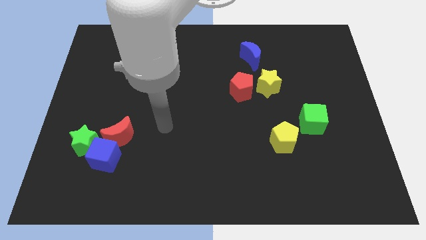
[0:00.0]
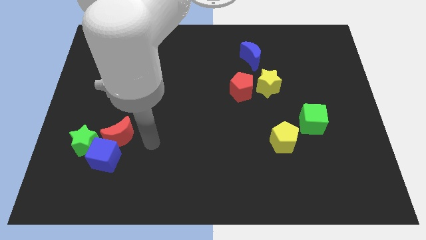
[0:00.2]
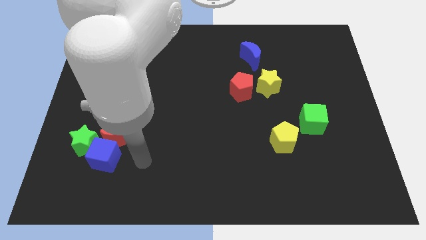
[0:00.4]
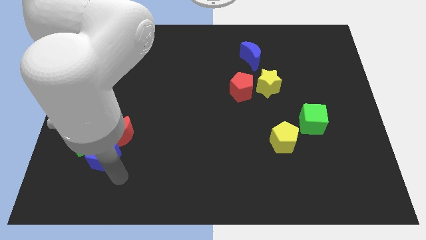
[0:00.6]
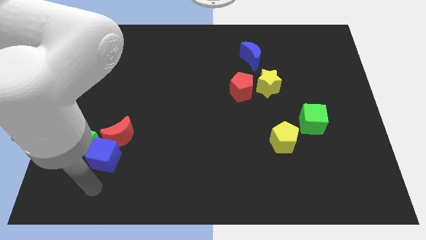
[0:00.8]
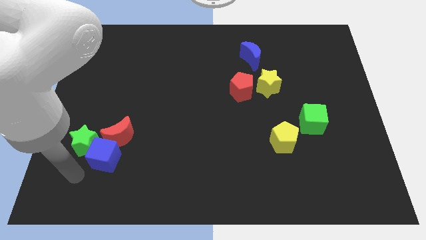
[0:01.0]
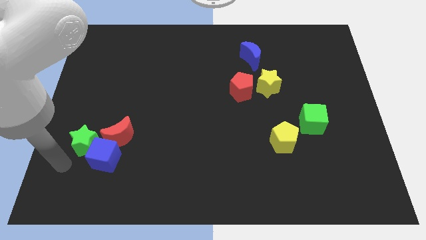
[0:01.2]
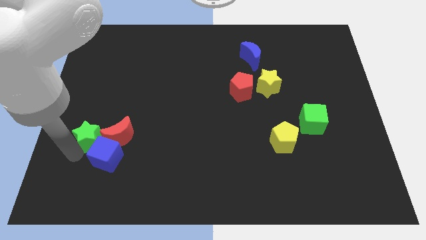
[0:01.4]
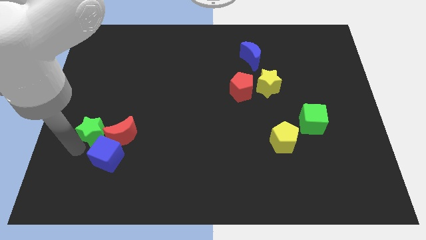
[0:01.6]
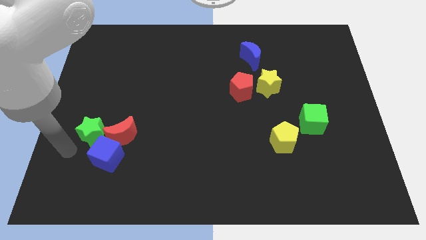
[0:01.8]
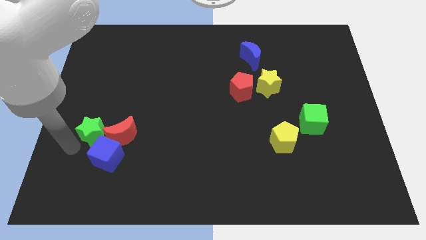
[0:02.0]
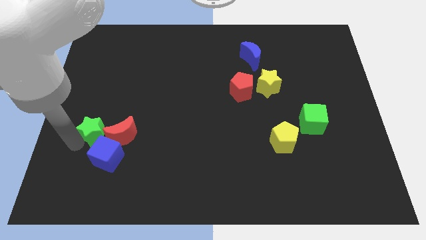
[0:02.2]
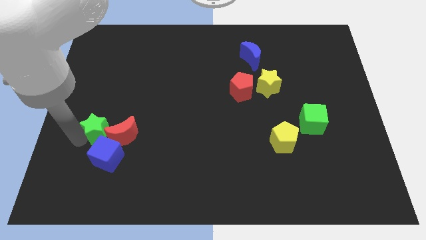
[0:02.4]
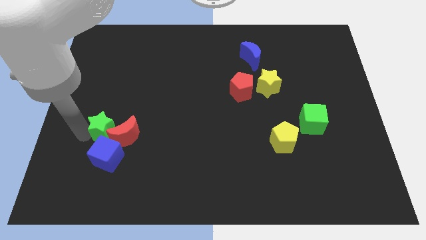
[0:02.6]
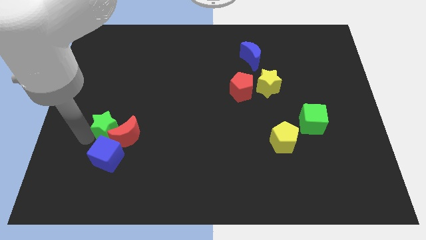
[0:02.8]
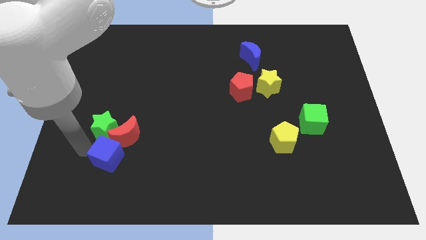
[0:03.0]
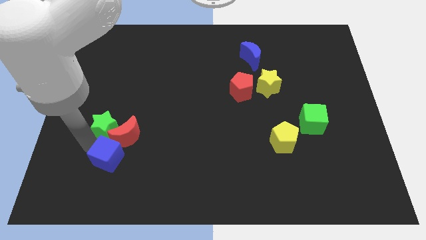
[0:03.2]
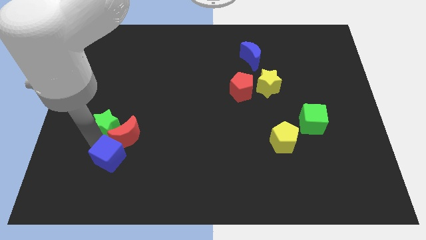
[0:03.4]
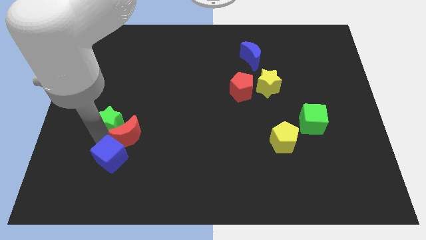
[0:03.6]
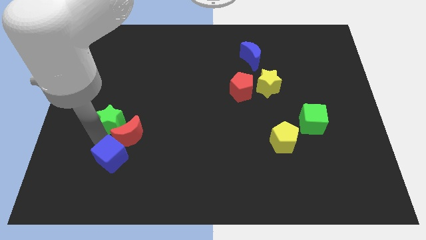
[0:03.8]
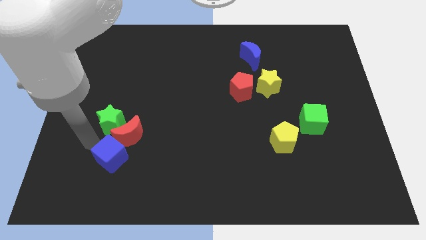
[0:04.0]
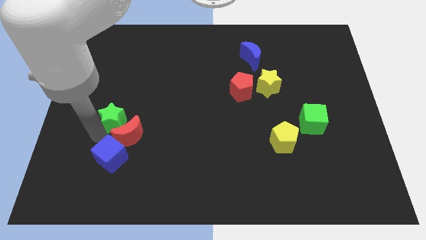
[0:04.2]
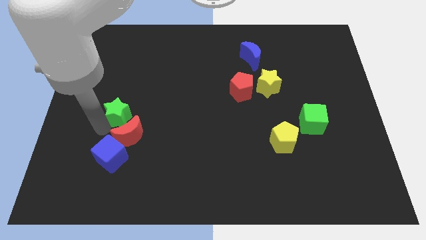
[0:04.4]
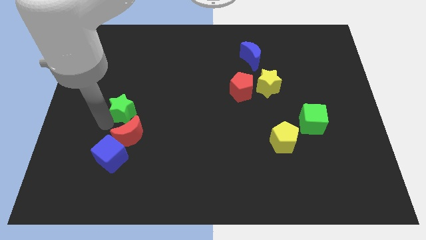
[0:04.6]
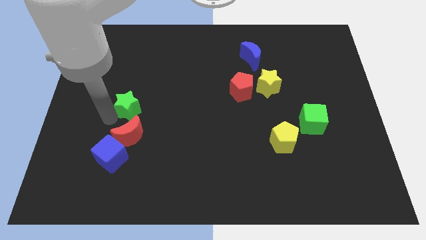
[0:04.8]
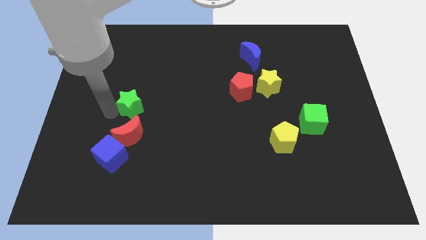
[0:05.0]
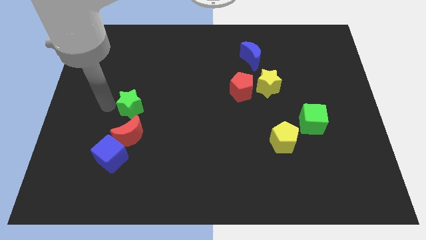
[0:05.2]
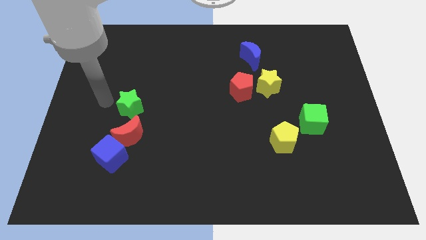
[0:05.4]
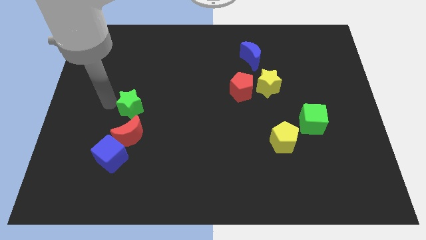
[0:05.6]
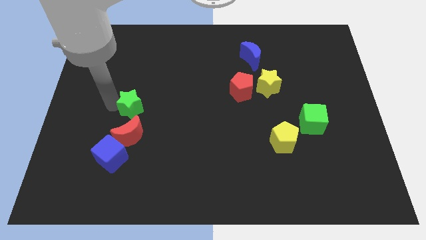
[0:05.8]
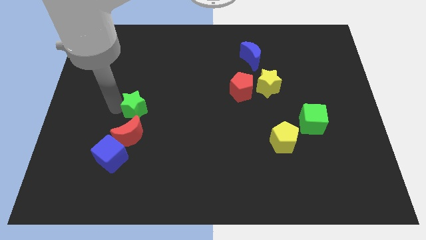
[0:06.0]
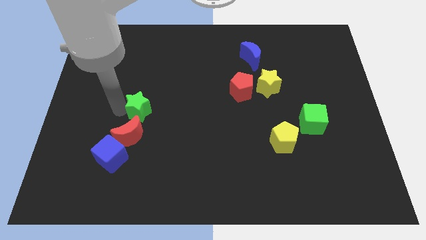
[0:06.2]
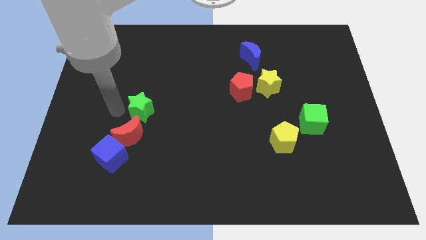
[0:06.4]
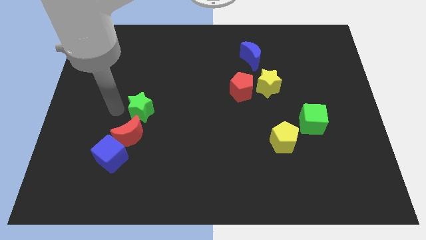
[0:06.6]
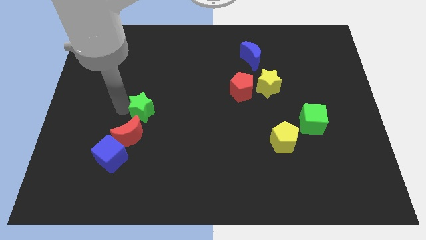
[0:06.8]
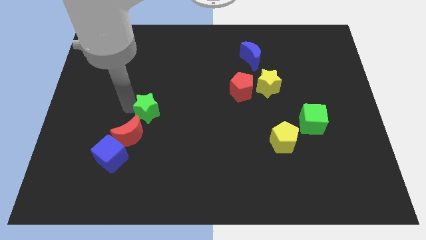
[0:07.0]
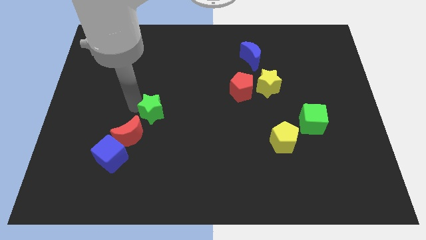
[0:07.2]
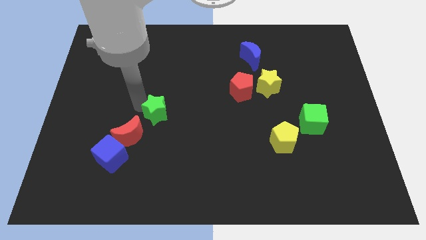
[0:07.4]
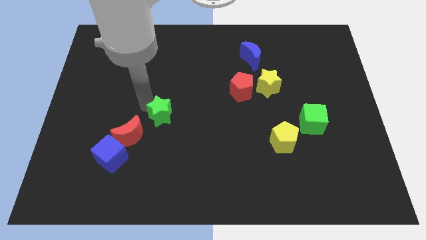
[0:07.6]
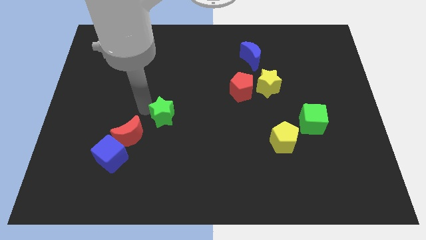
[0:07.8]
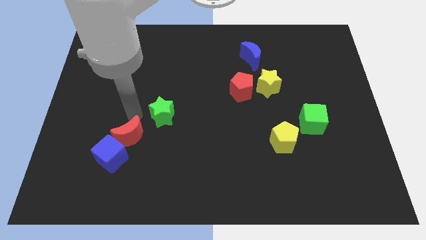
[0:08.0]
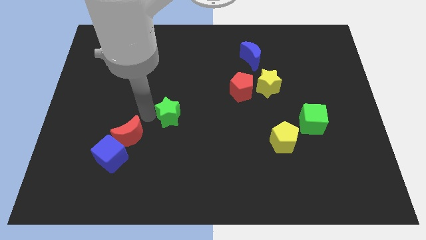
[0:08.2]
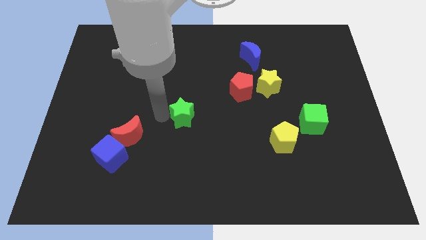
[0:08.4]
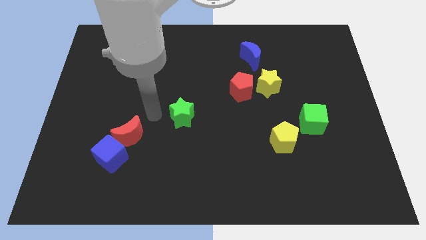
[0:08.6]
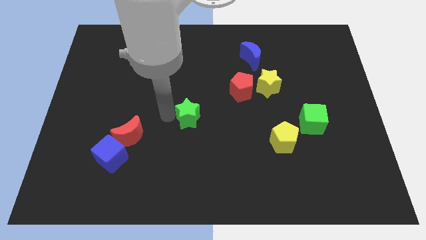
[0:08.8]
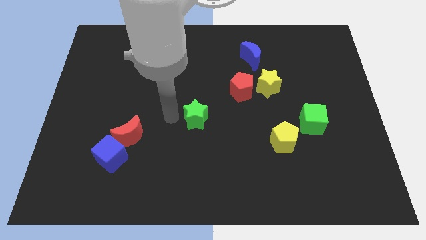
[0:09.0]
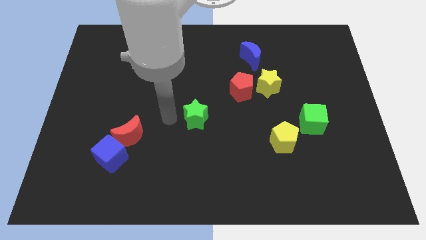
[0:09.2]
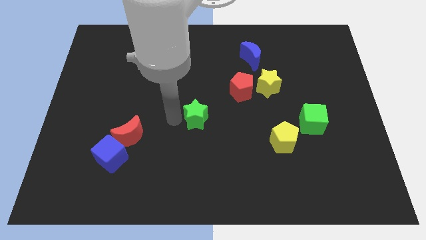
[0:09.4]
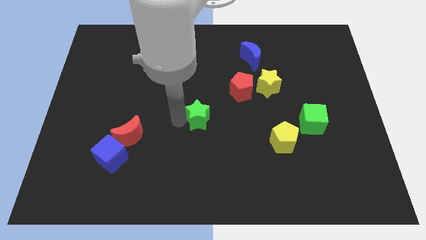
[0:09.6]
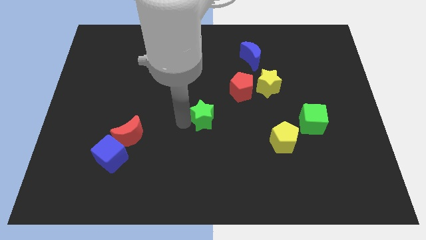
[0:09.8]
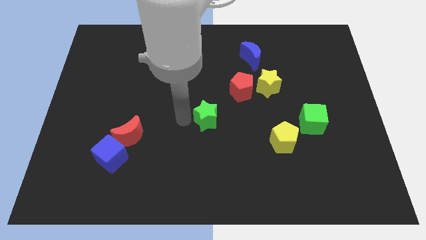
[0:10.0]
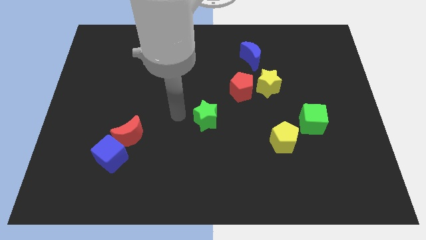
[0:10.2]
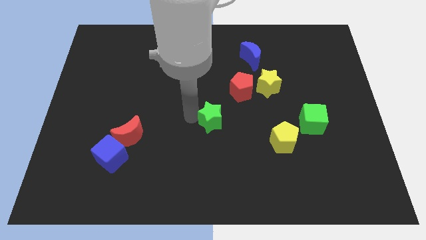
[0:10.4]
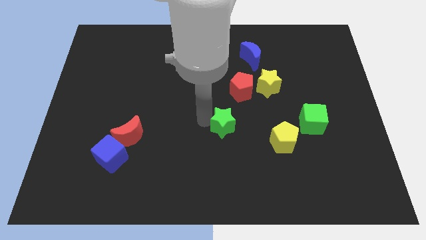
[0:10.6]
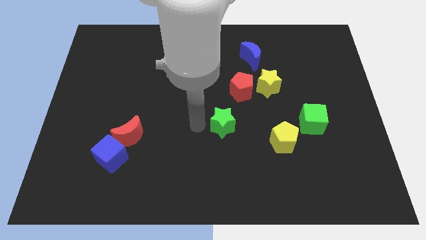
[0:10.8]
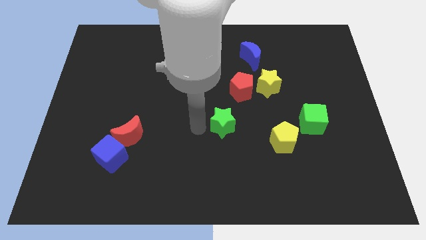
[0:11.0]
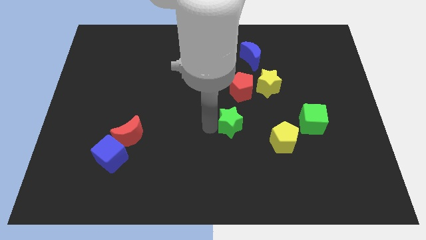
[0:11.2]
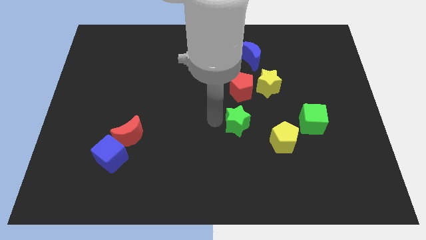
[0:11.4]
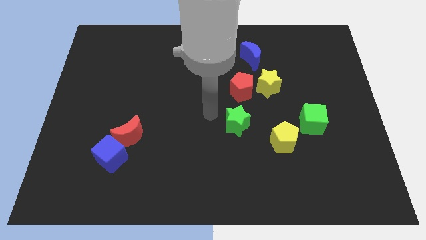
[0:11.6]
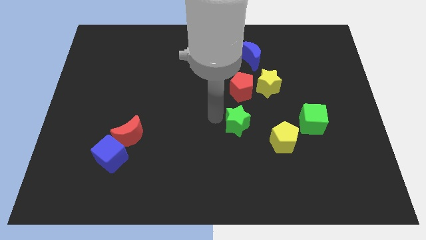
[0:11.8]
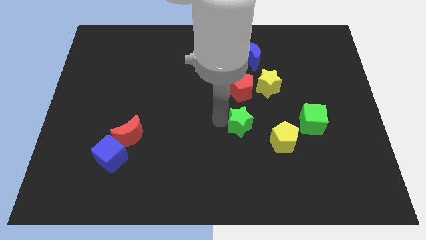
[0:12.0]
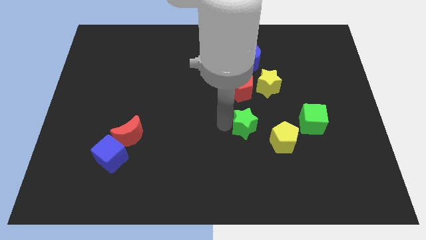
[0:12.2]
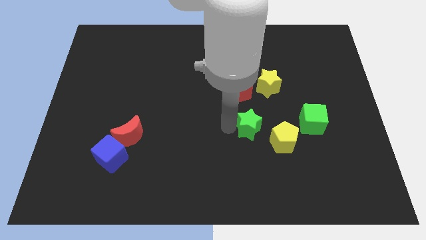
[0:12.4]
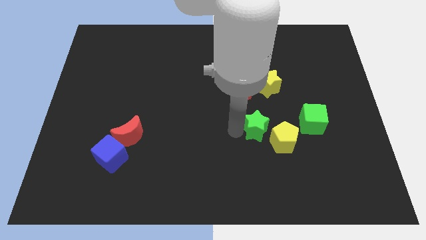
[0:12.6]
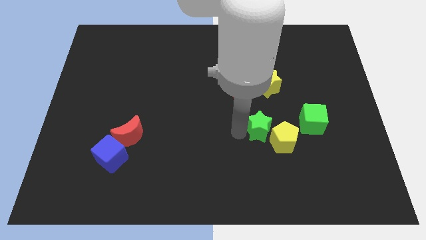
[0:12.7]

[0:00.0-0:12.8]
push the green star next to the yellow pentagon
